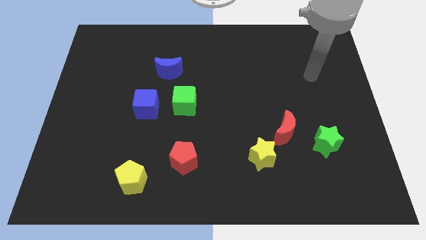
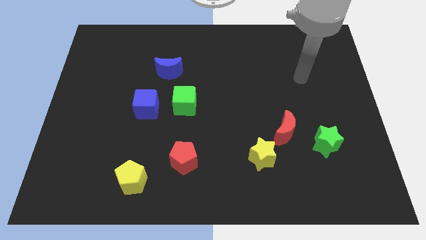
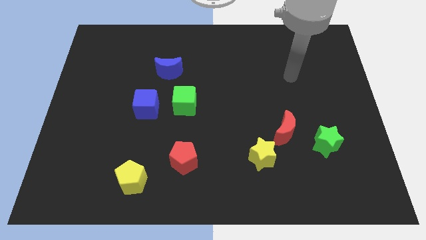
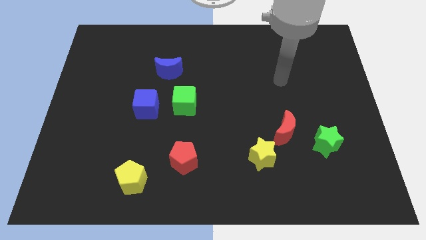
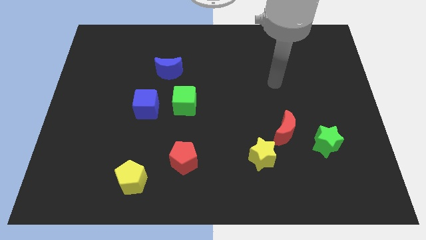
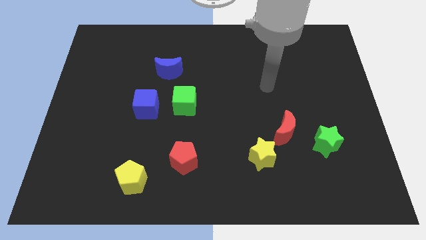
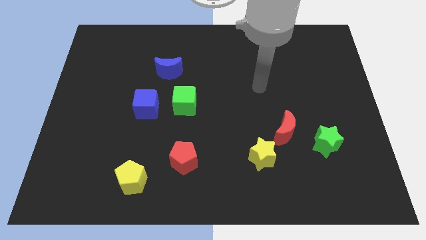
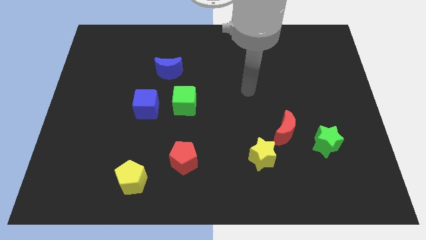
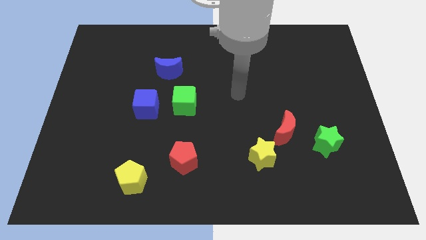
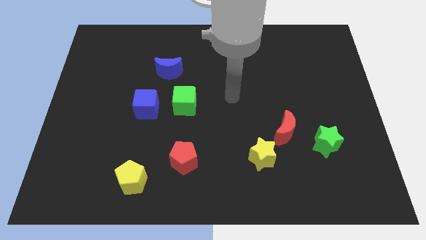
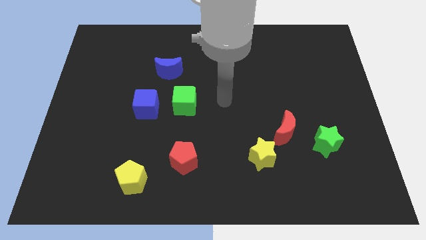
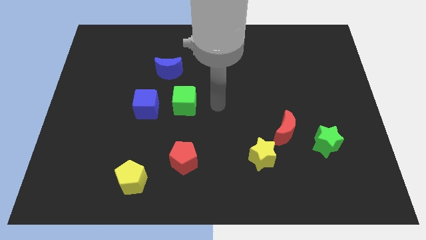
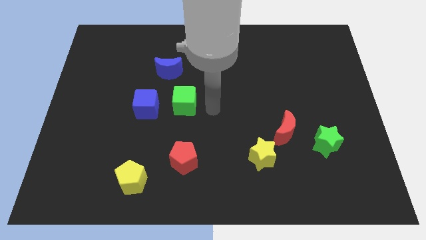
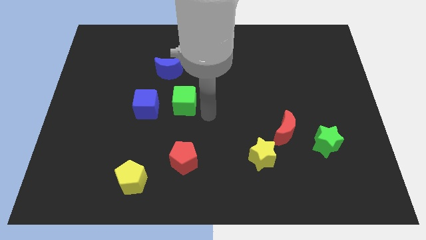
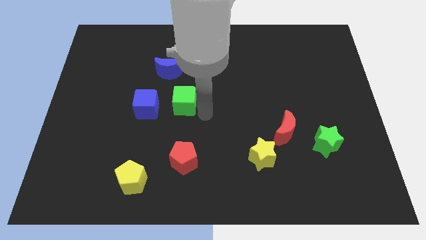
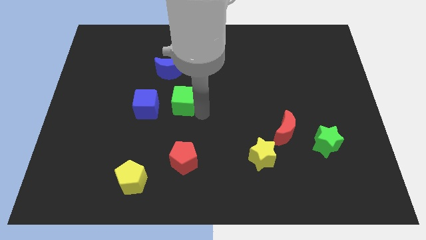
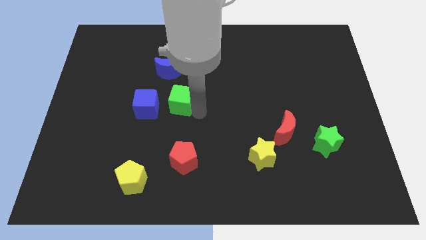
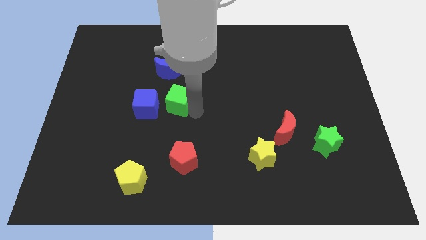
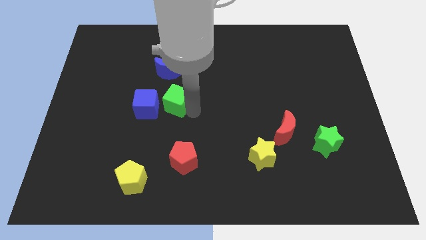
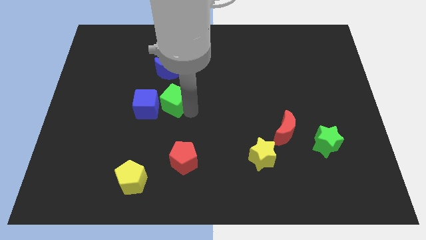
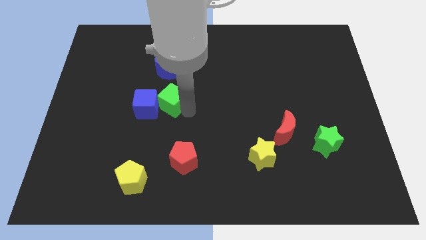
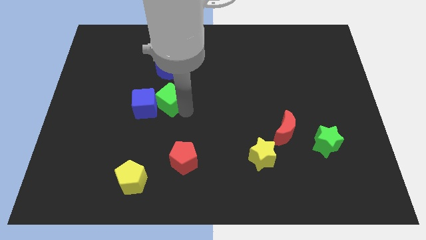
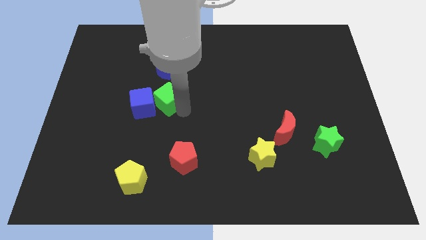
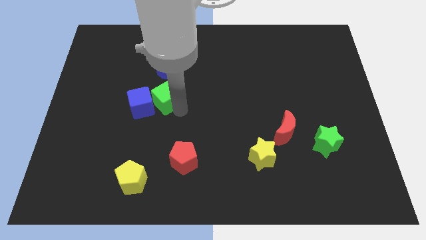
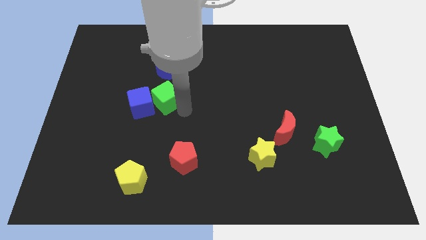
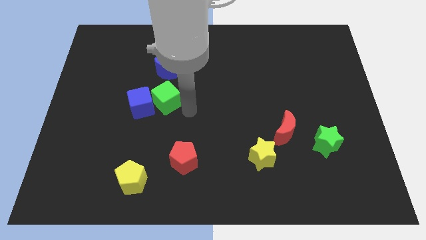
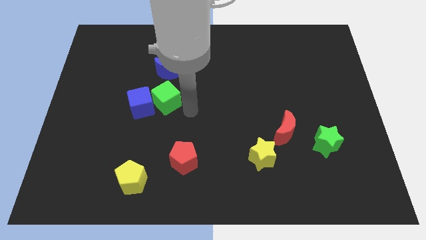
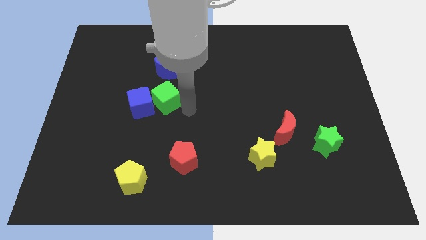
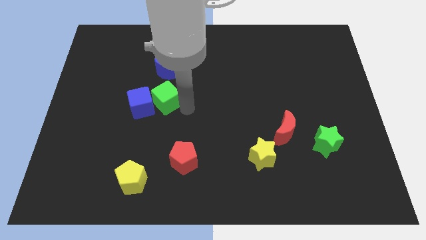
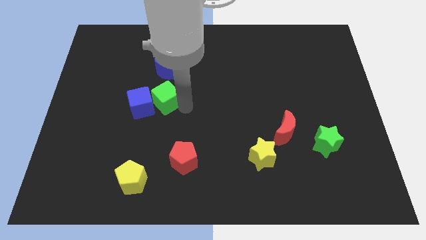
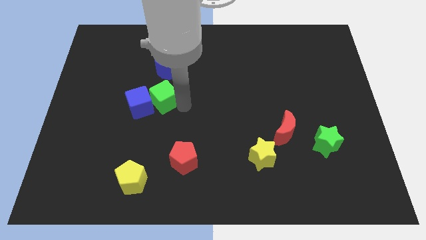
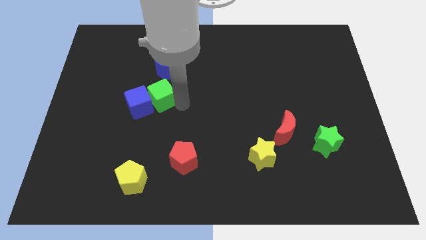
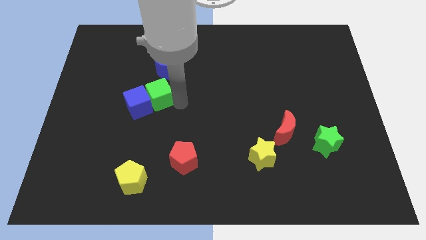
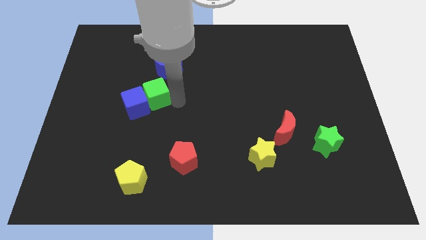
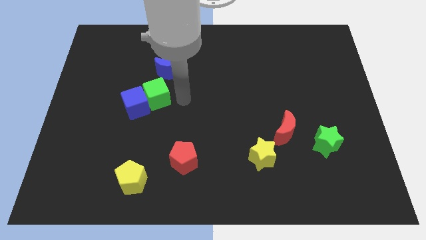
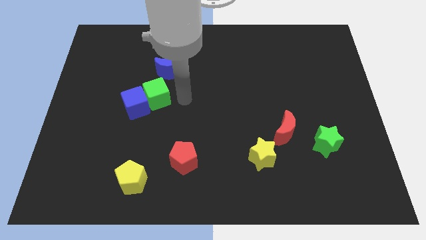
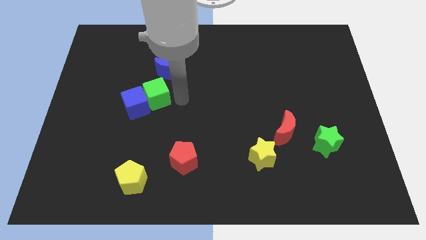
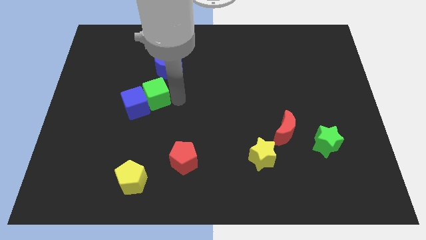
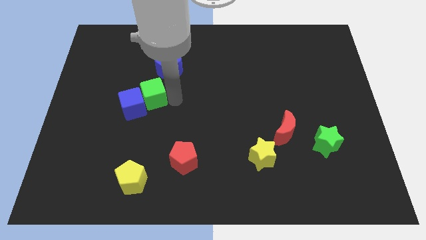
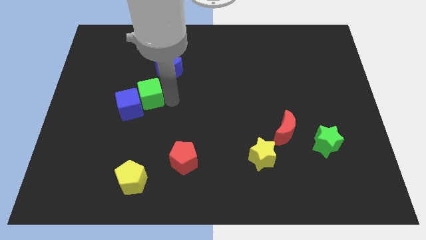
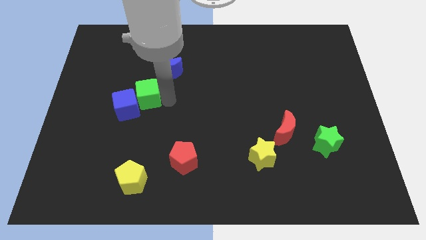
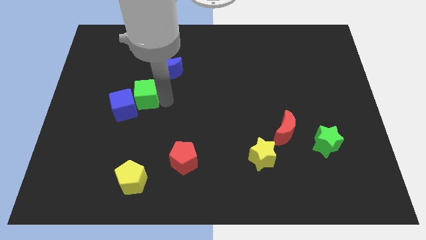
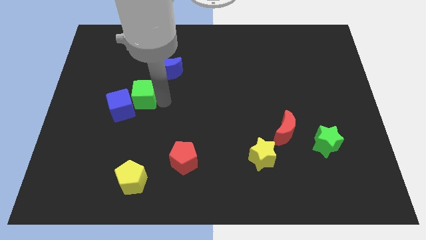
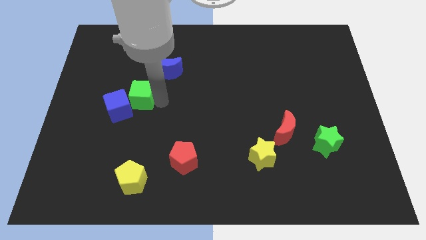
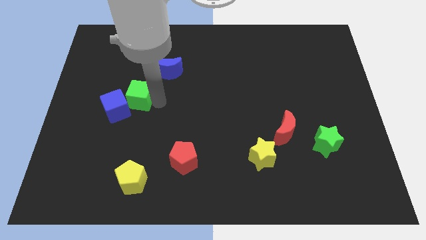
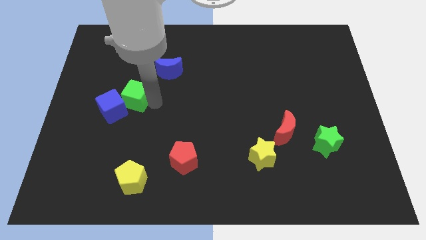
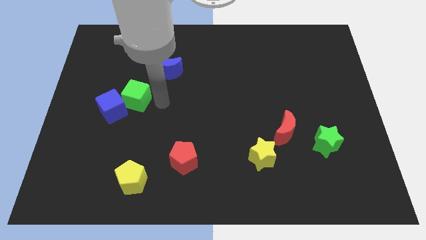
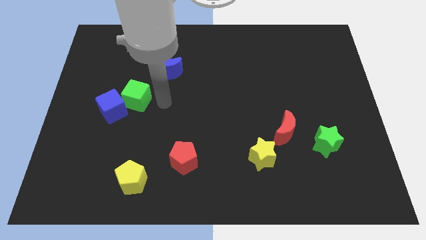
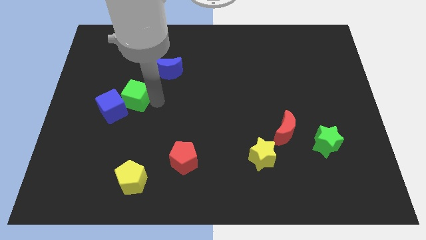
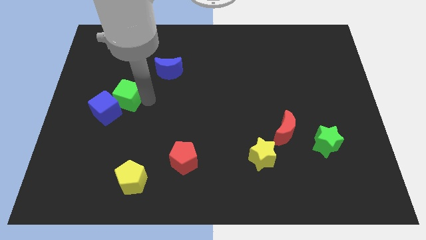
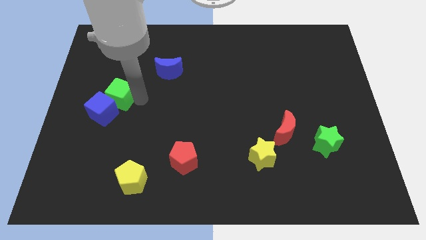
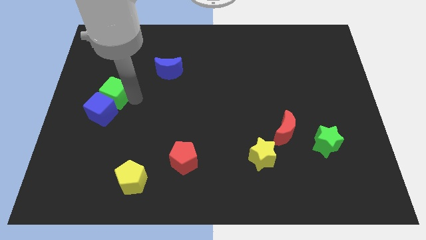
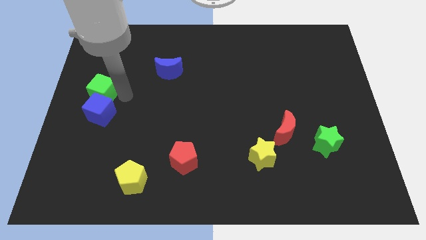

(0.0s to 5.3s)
put the green cube to the center left

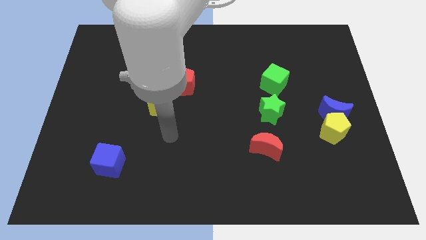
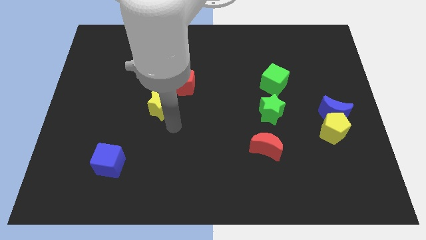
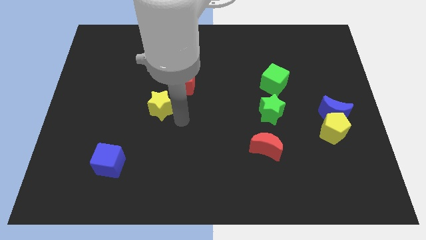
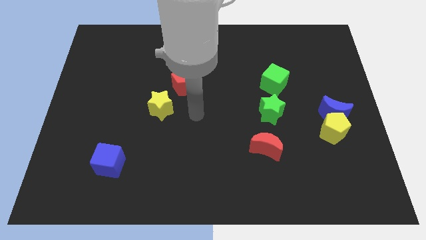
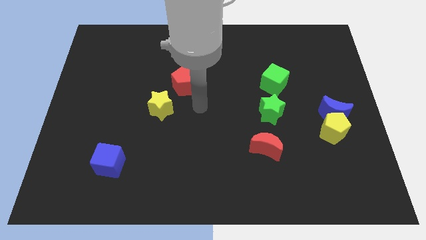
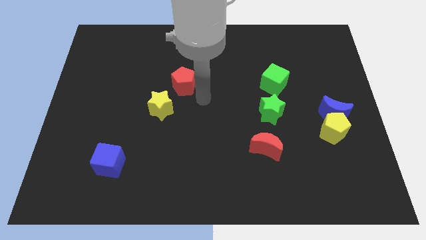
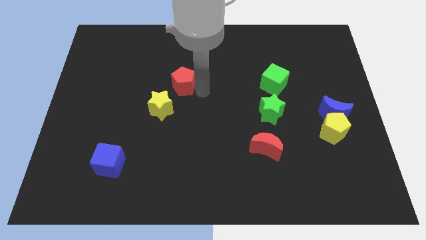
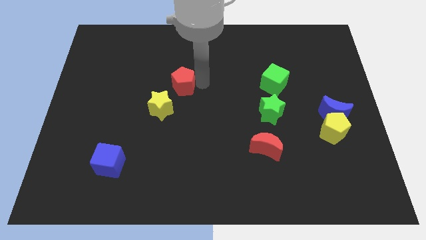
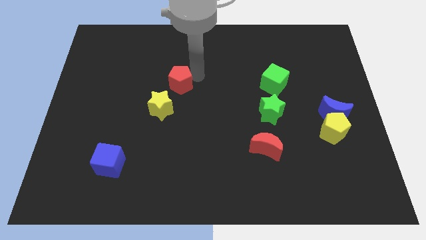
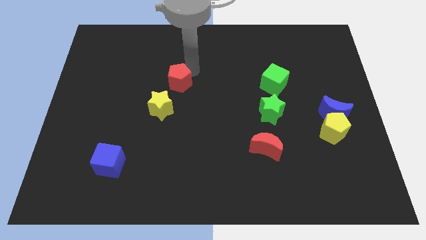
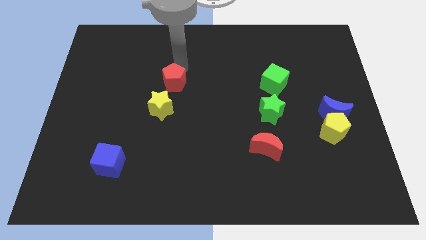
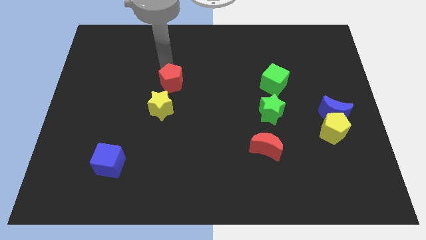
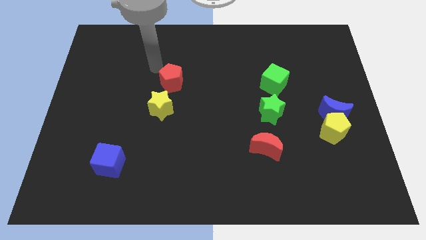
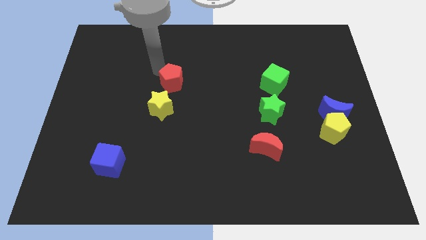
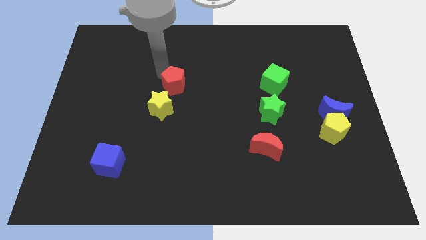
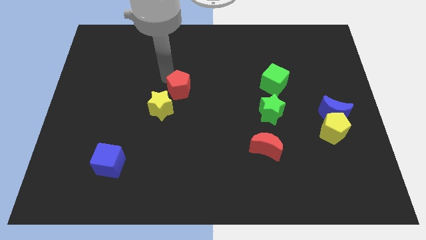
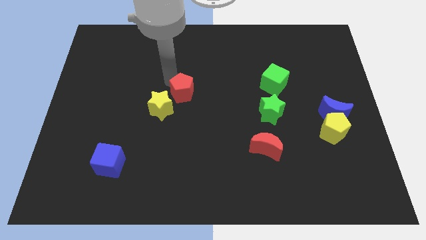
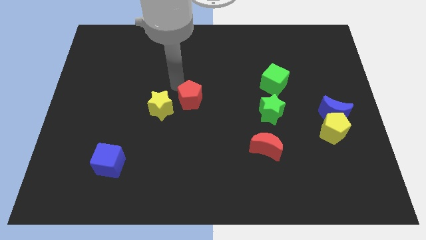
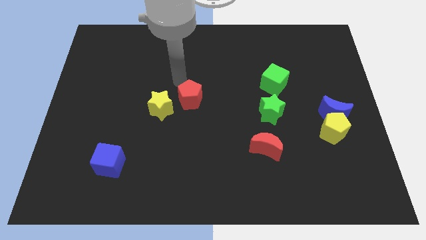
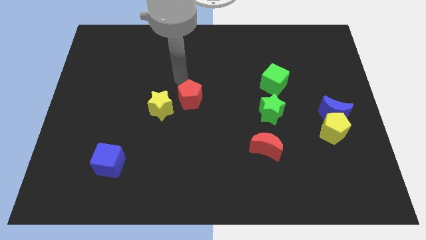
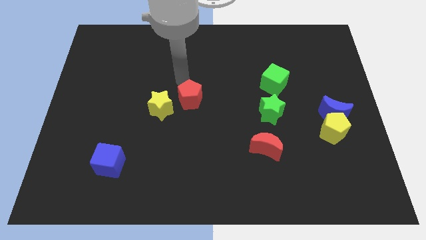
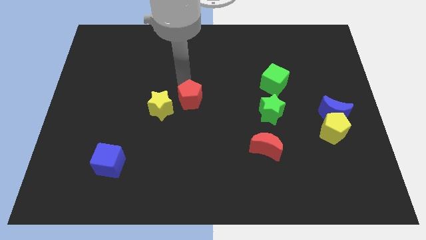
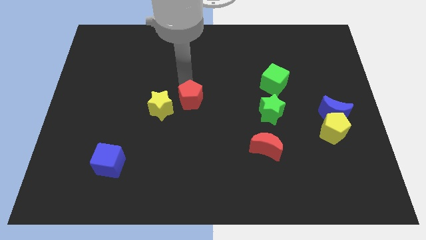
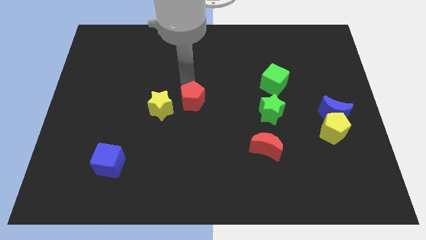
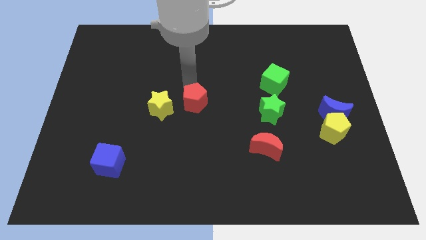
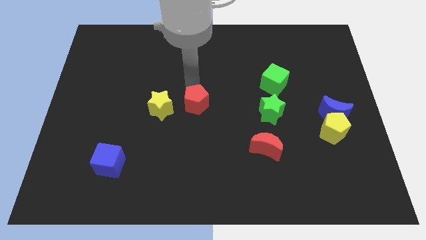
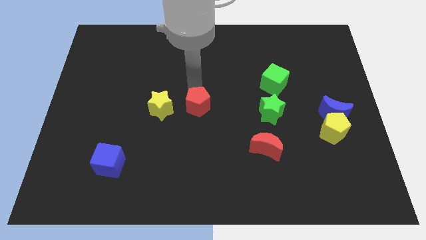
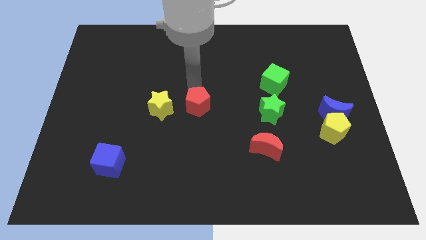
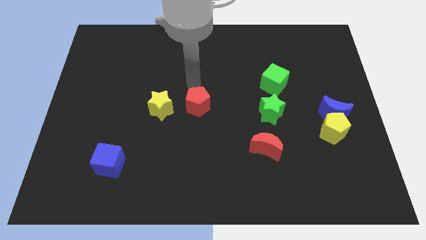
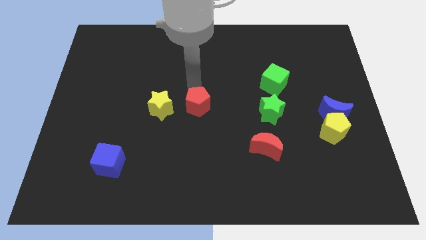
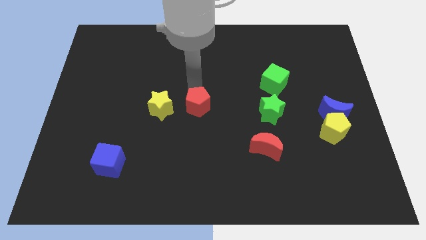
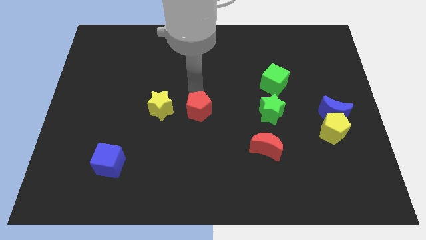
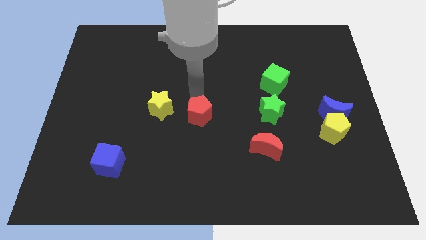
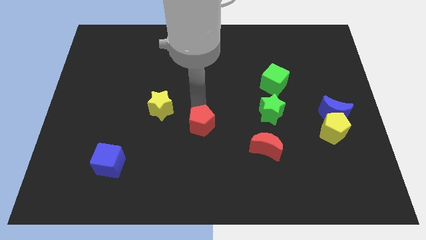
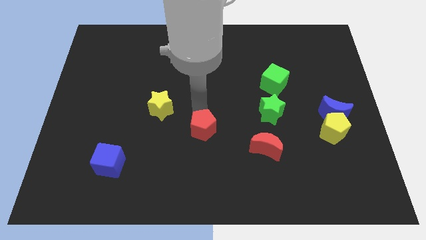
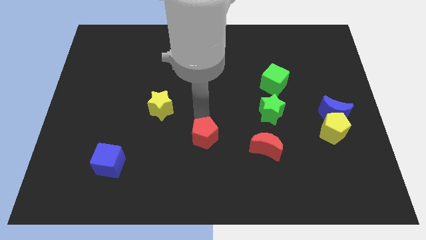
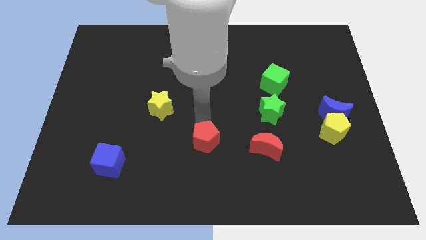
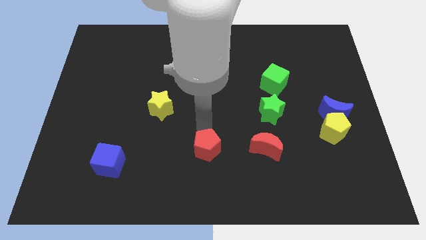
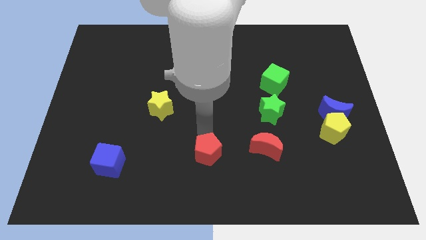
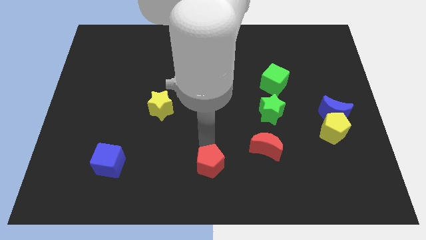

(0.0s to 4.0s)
put the red pentagon to the bottom
